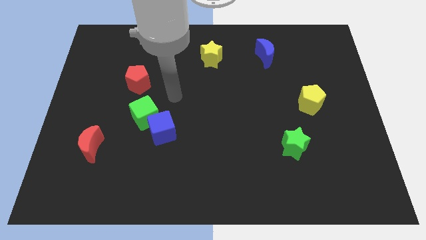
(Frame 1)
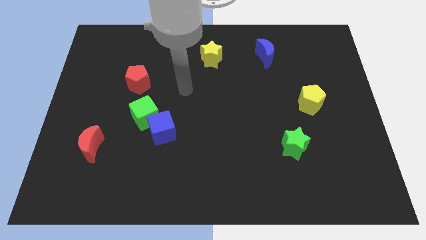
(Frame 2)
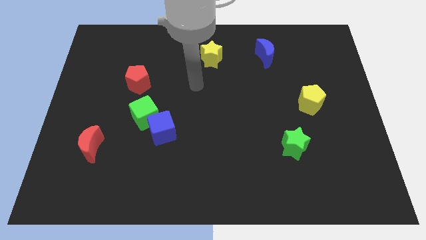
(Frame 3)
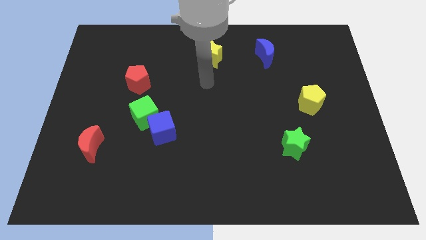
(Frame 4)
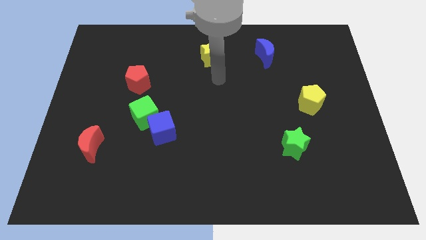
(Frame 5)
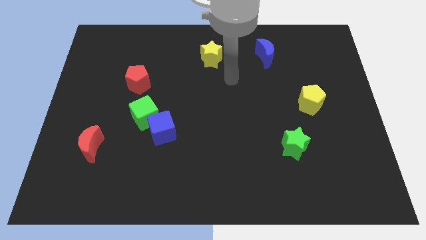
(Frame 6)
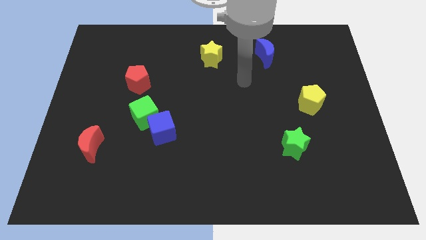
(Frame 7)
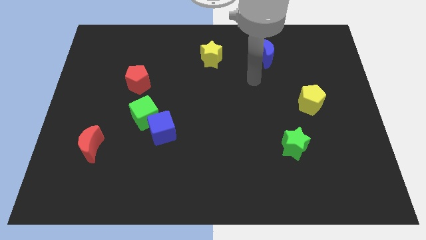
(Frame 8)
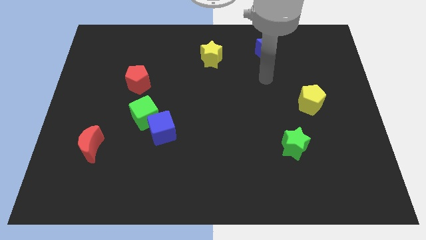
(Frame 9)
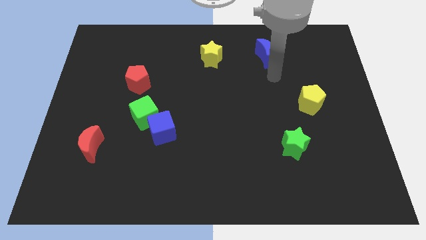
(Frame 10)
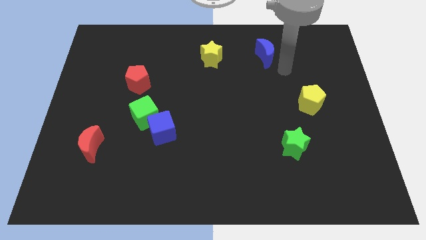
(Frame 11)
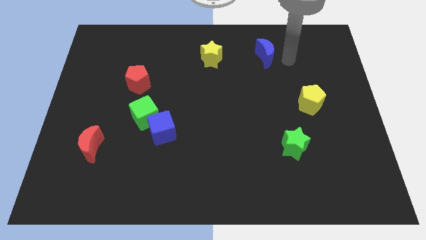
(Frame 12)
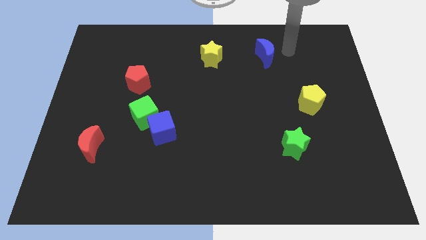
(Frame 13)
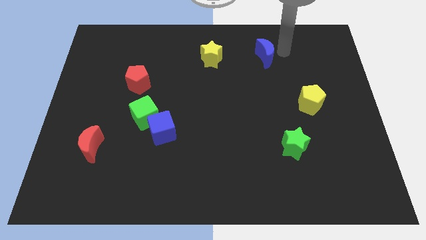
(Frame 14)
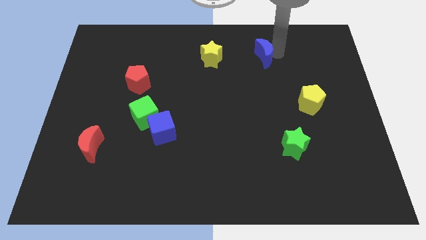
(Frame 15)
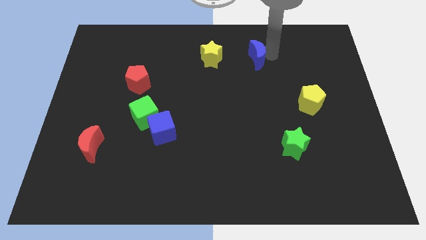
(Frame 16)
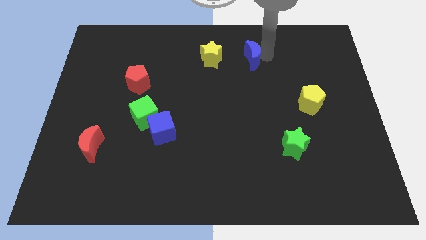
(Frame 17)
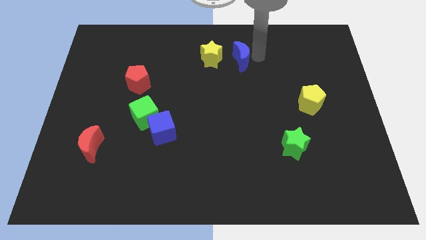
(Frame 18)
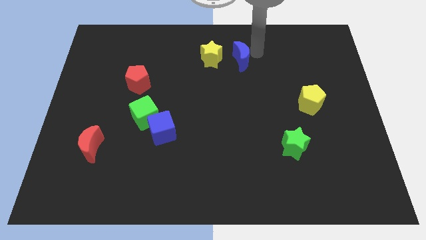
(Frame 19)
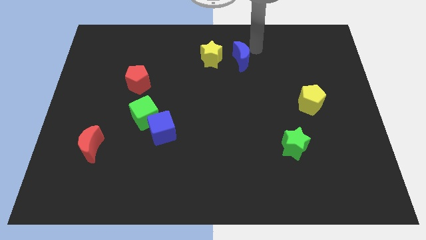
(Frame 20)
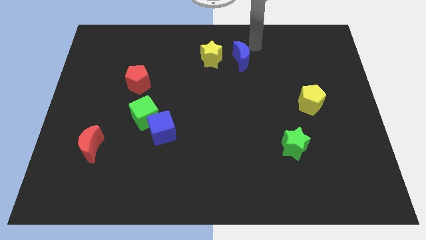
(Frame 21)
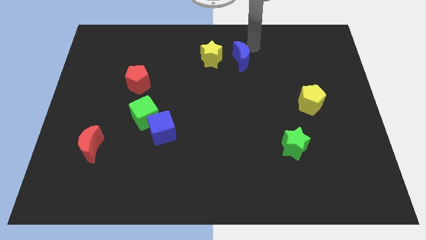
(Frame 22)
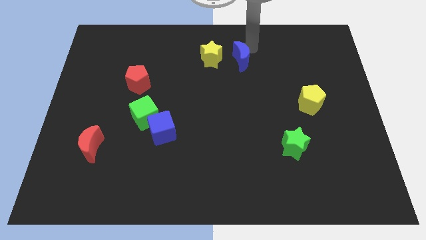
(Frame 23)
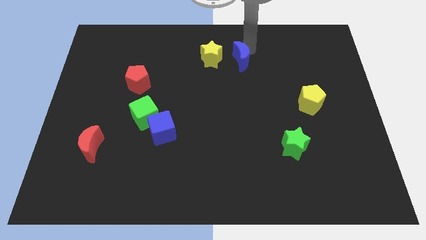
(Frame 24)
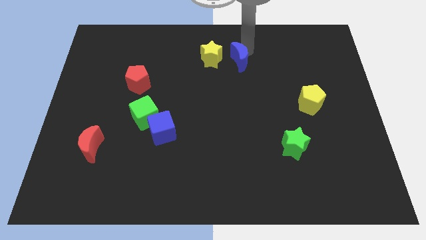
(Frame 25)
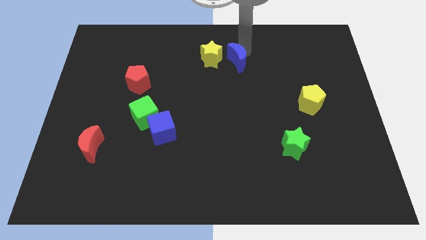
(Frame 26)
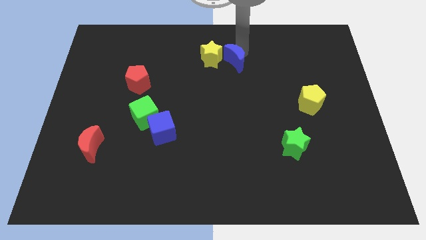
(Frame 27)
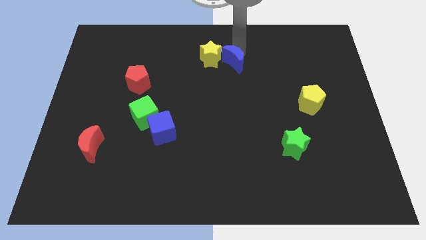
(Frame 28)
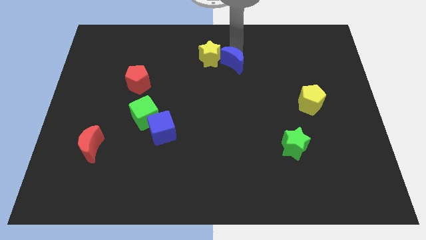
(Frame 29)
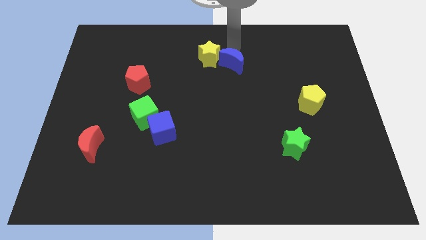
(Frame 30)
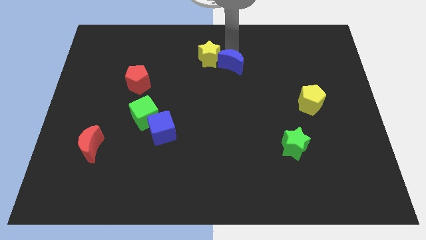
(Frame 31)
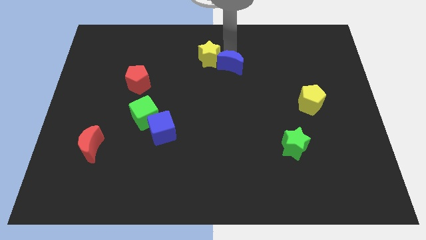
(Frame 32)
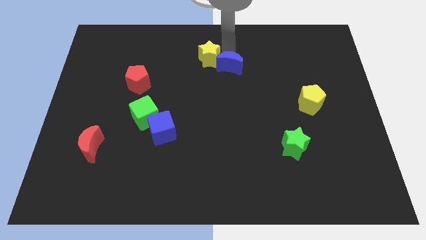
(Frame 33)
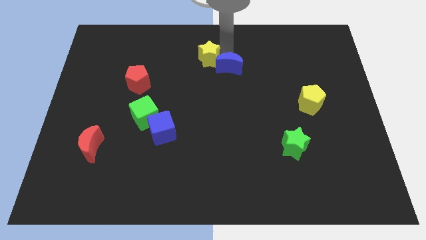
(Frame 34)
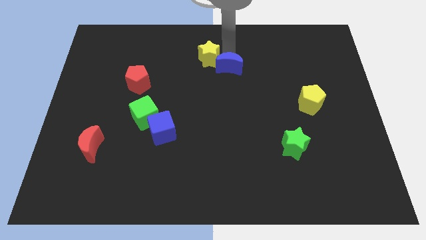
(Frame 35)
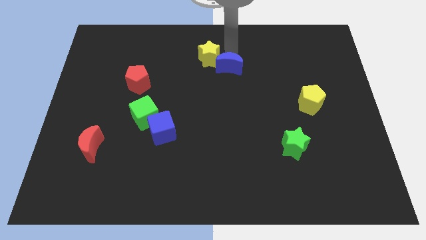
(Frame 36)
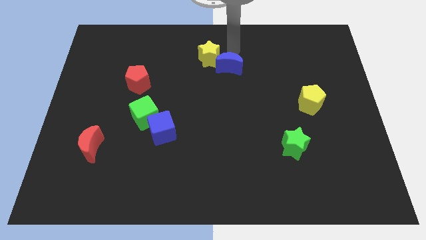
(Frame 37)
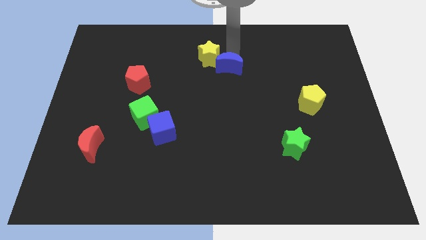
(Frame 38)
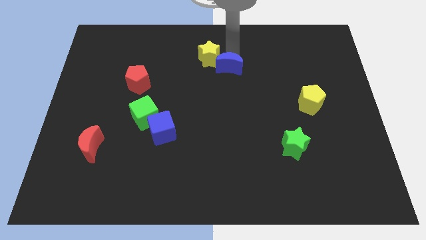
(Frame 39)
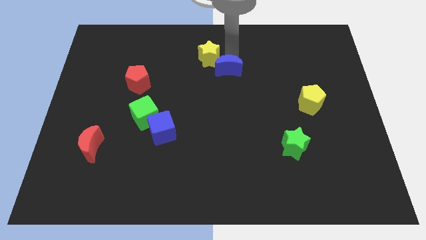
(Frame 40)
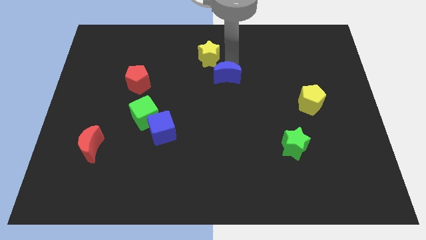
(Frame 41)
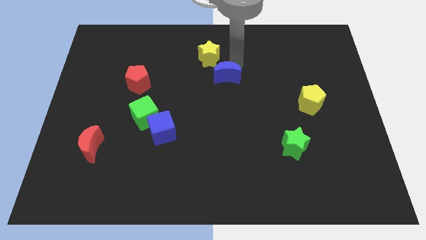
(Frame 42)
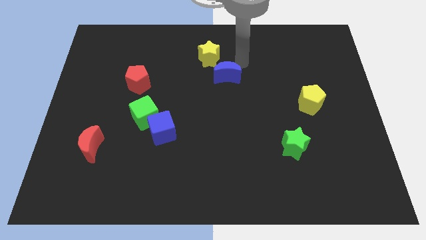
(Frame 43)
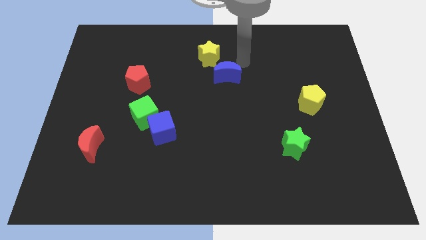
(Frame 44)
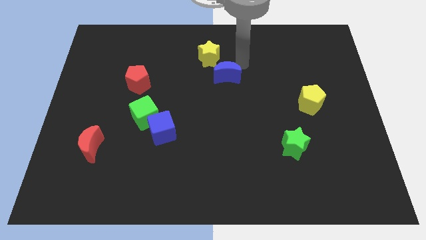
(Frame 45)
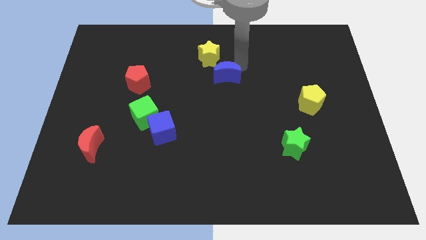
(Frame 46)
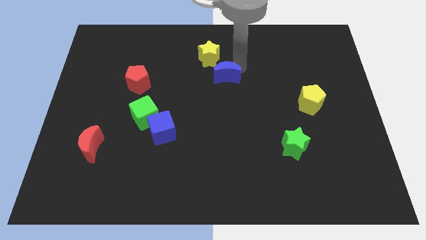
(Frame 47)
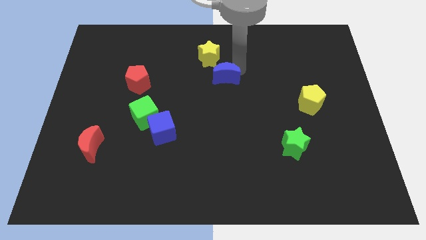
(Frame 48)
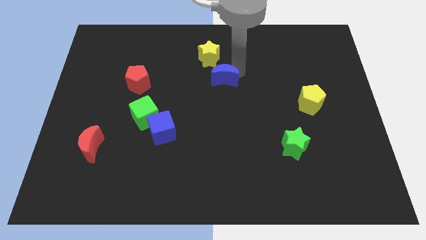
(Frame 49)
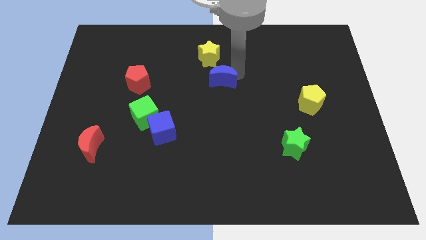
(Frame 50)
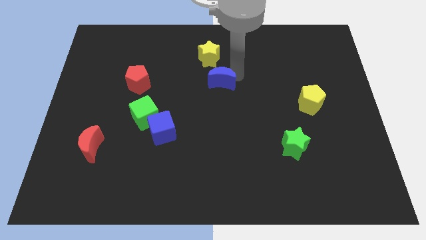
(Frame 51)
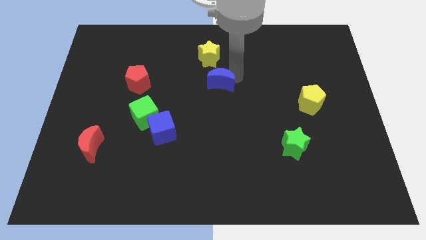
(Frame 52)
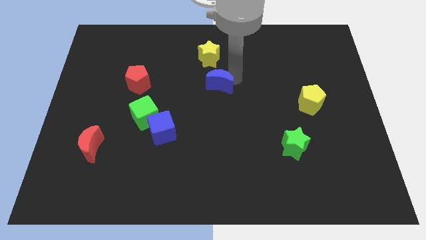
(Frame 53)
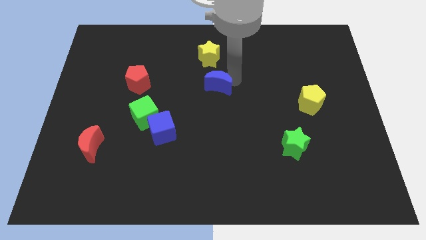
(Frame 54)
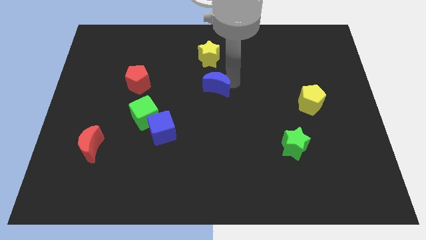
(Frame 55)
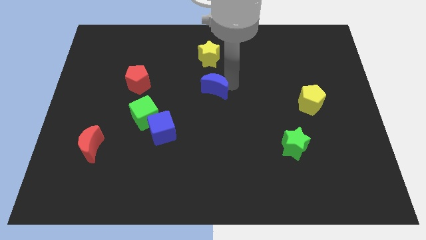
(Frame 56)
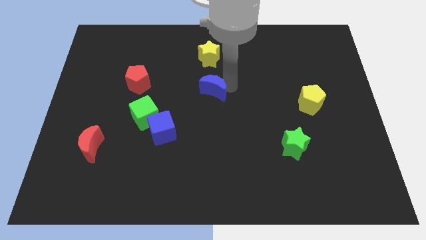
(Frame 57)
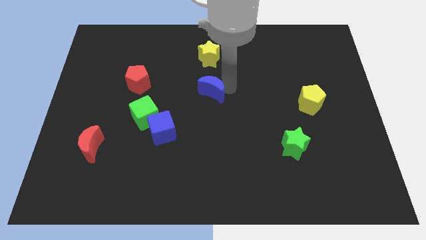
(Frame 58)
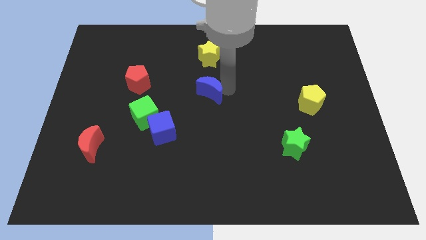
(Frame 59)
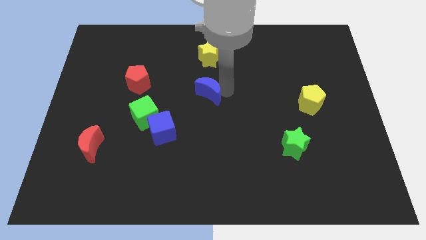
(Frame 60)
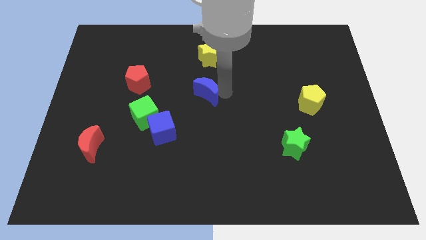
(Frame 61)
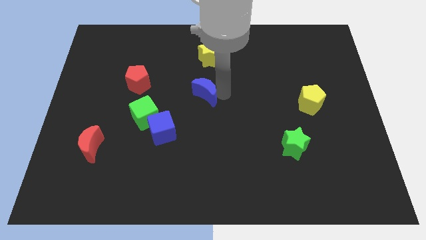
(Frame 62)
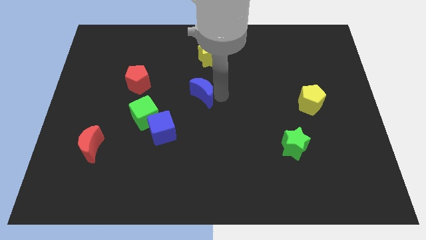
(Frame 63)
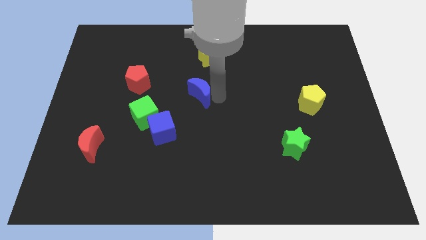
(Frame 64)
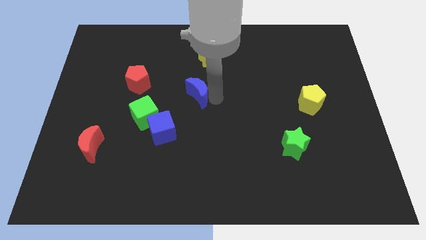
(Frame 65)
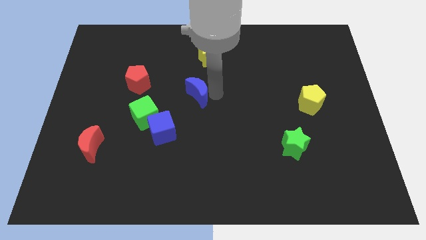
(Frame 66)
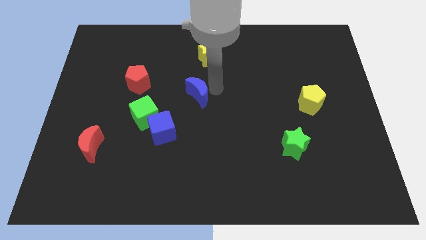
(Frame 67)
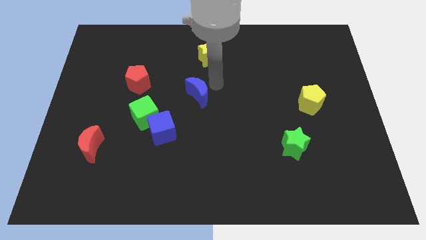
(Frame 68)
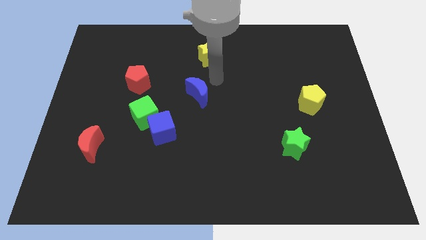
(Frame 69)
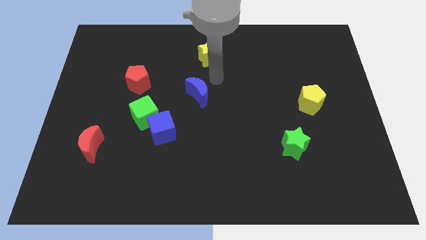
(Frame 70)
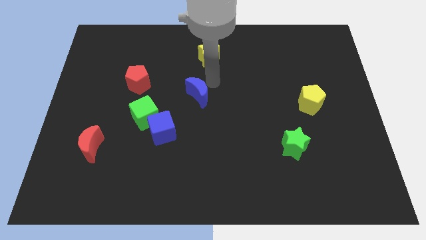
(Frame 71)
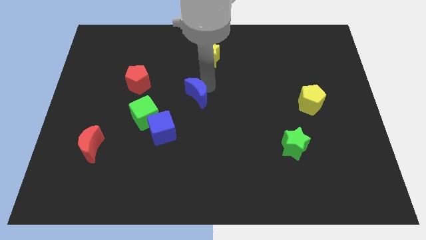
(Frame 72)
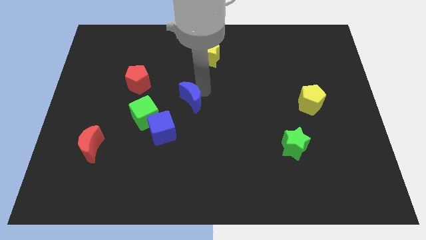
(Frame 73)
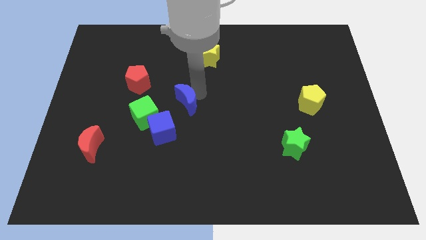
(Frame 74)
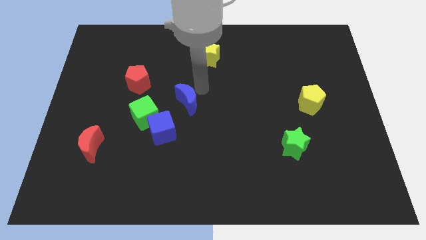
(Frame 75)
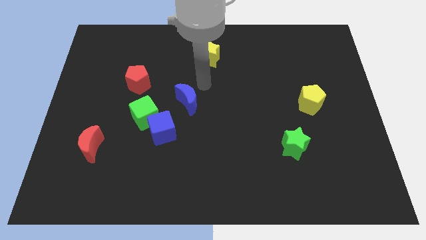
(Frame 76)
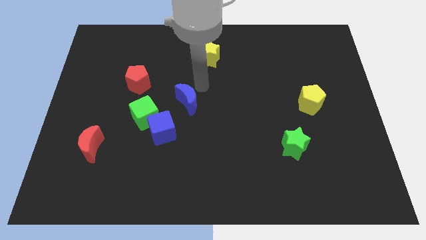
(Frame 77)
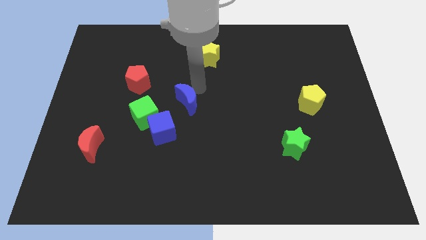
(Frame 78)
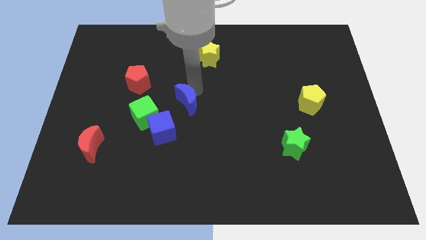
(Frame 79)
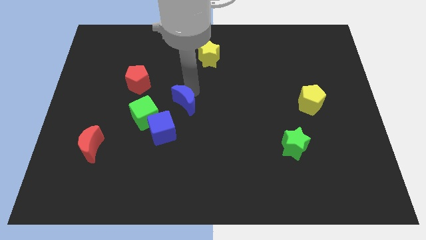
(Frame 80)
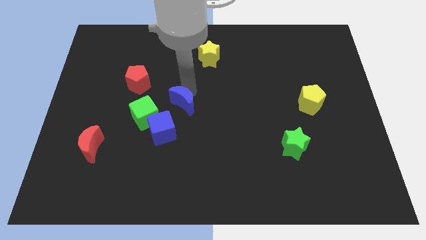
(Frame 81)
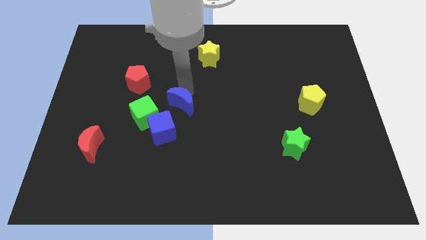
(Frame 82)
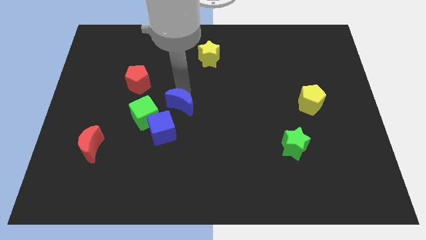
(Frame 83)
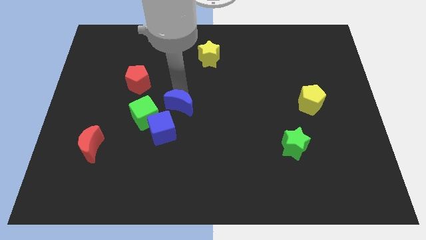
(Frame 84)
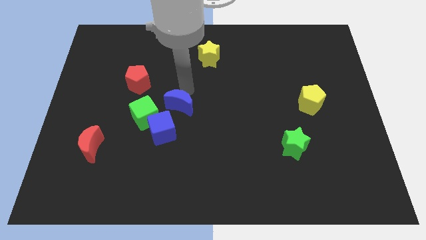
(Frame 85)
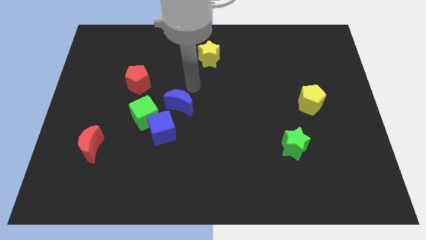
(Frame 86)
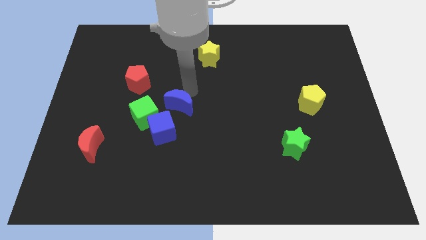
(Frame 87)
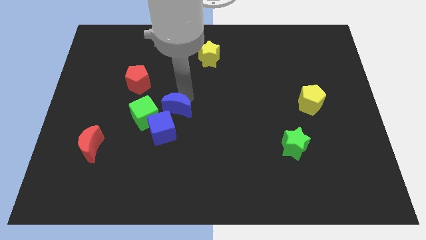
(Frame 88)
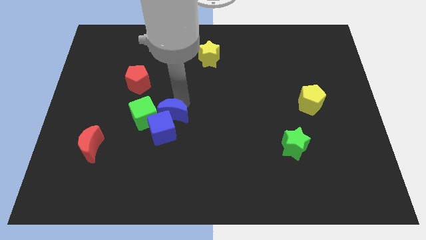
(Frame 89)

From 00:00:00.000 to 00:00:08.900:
push the blue moon to the blue cube
